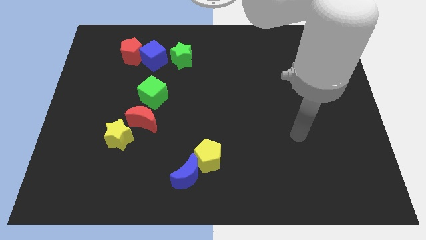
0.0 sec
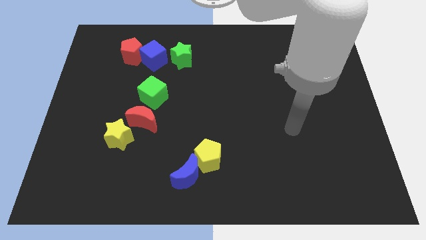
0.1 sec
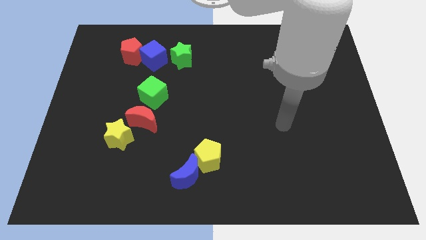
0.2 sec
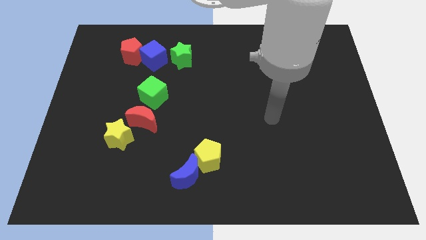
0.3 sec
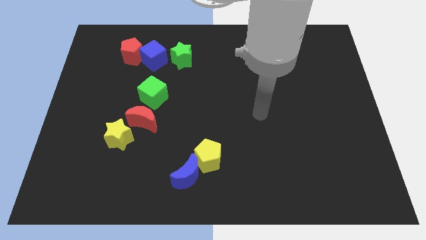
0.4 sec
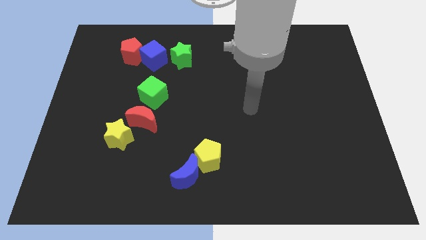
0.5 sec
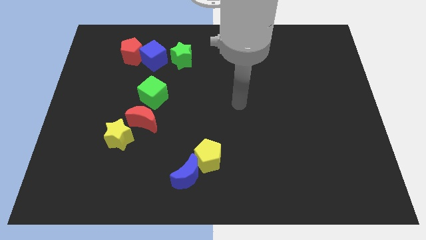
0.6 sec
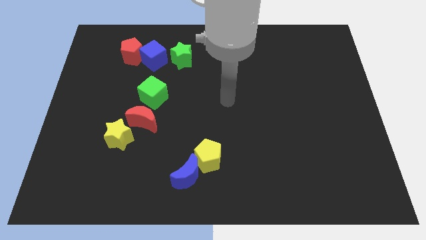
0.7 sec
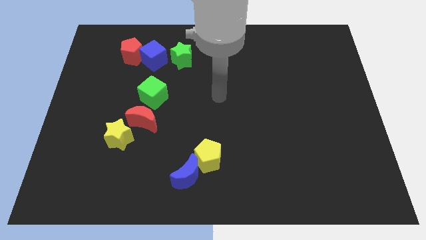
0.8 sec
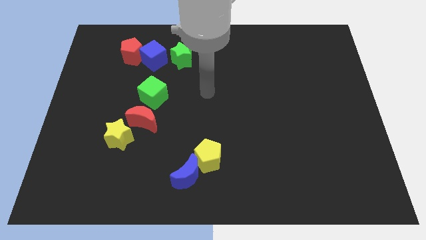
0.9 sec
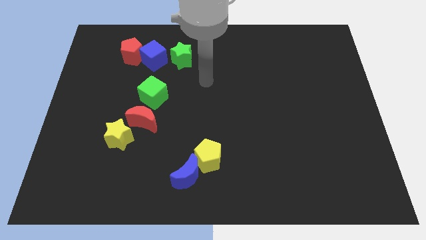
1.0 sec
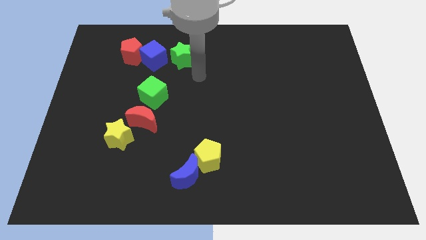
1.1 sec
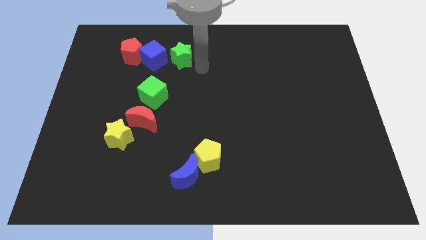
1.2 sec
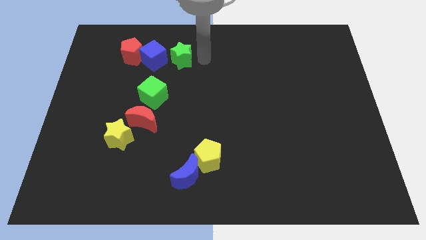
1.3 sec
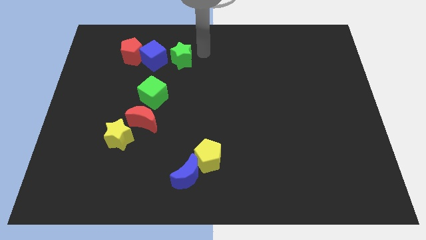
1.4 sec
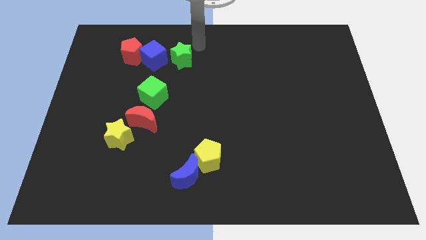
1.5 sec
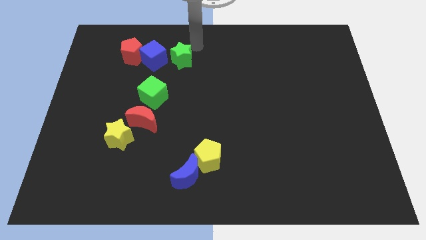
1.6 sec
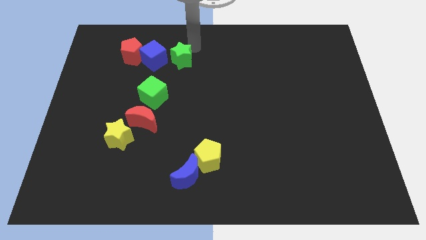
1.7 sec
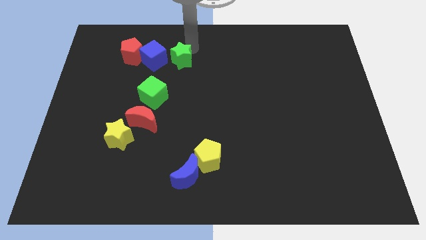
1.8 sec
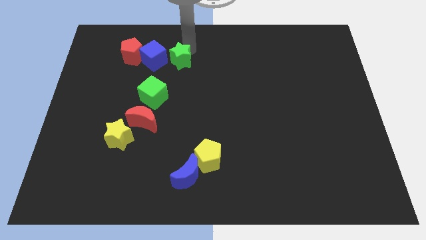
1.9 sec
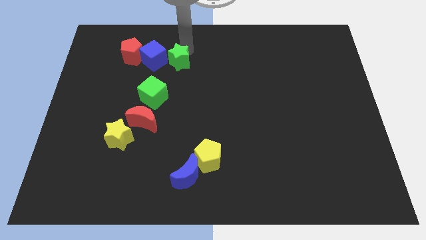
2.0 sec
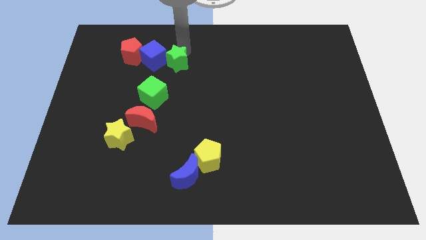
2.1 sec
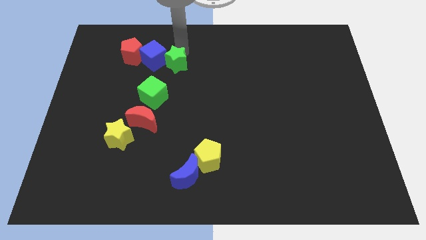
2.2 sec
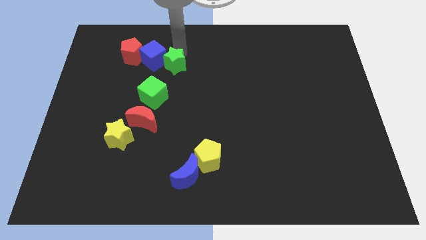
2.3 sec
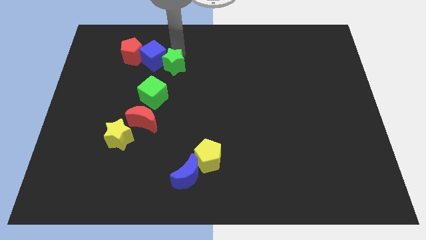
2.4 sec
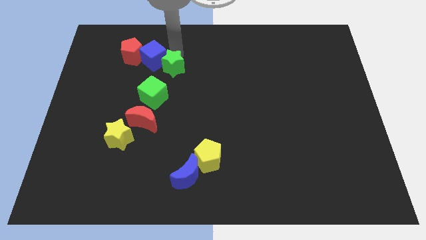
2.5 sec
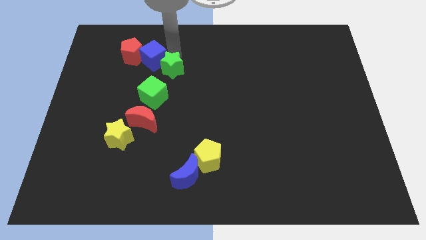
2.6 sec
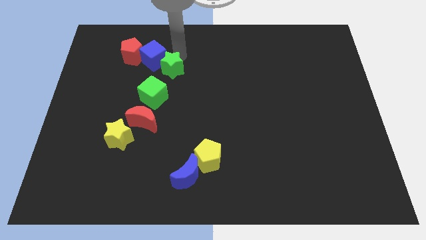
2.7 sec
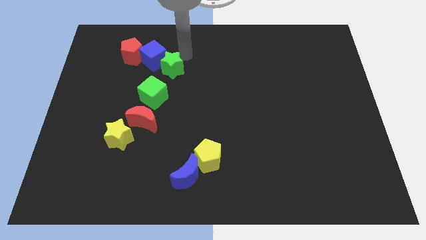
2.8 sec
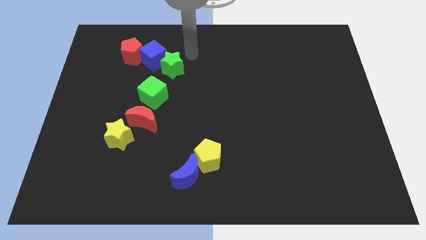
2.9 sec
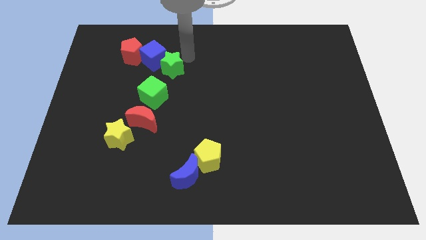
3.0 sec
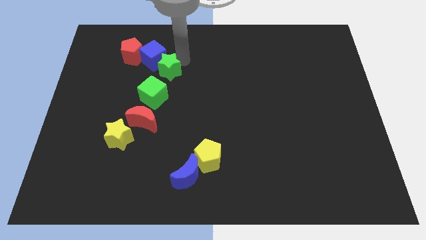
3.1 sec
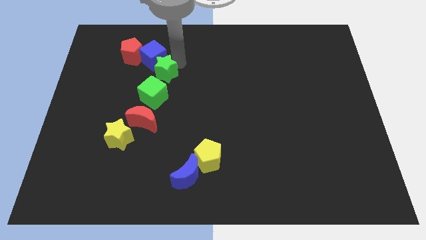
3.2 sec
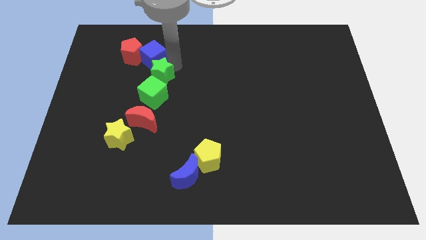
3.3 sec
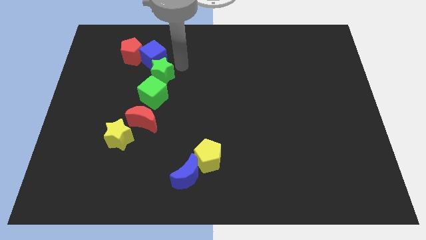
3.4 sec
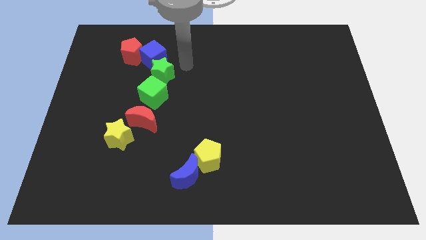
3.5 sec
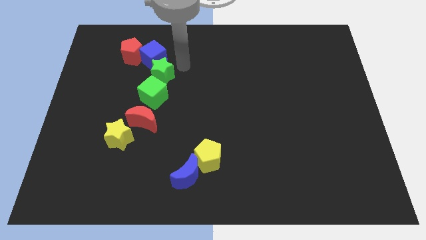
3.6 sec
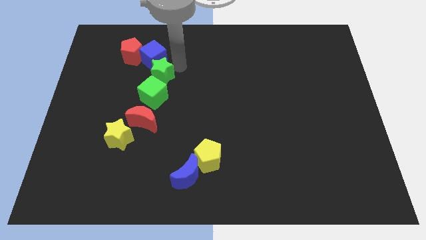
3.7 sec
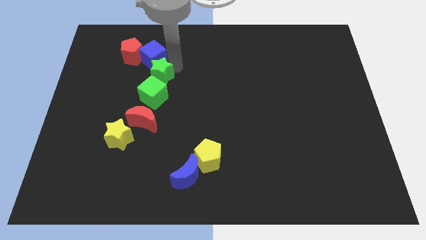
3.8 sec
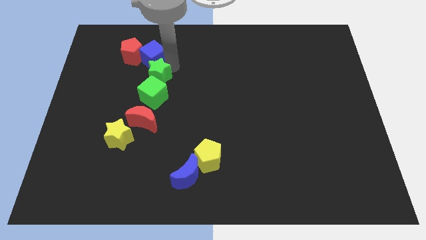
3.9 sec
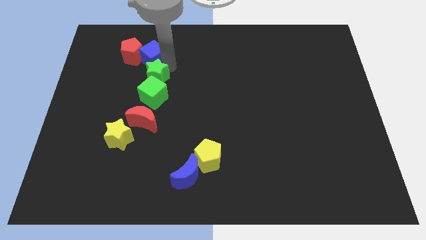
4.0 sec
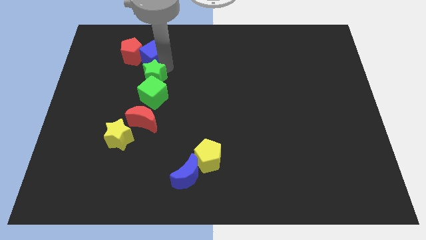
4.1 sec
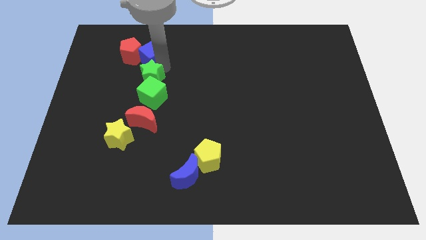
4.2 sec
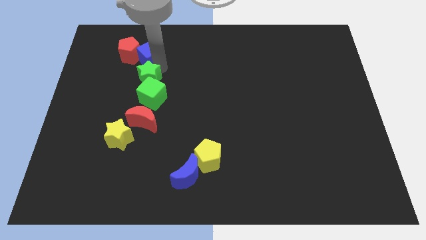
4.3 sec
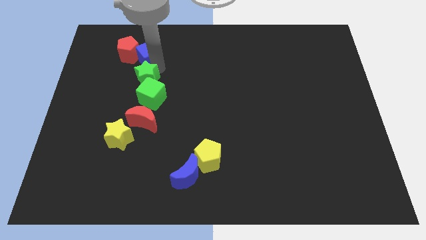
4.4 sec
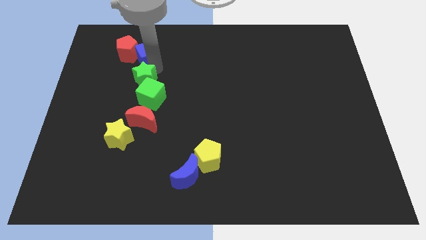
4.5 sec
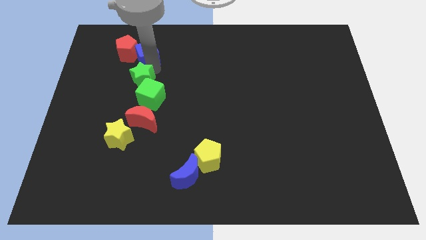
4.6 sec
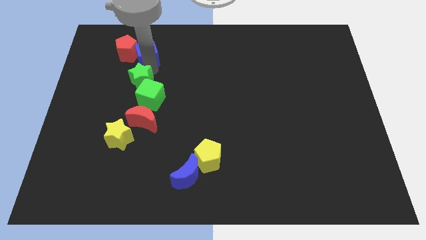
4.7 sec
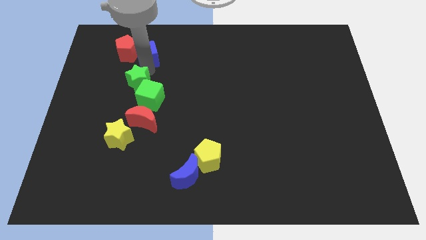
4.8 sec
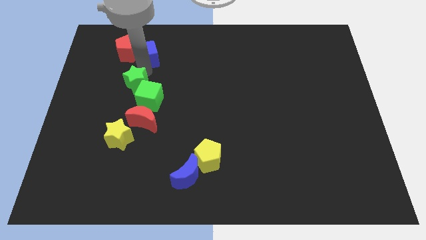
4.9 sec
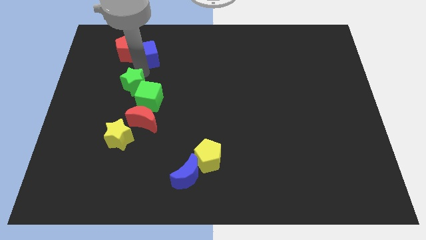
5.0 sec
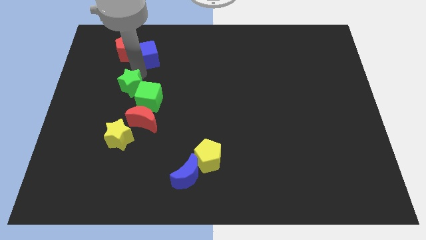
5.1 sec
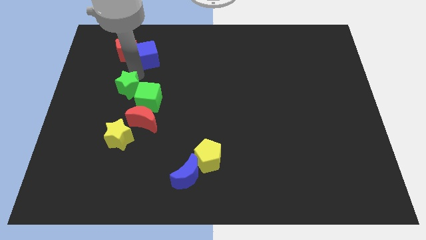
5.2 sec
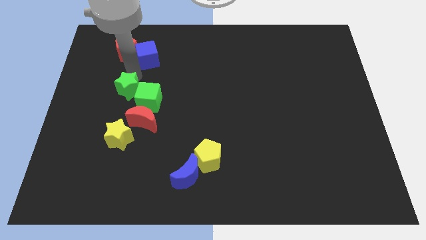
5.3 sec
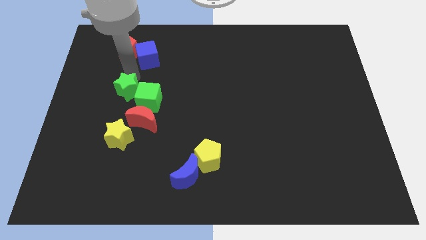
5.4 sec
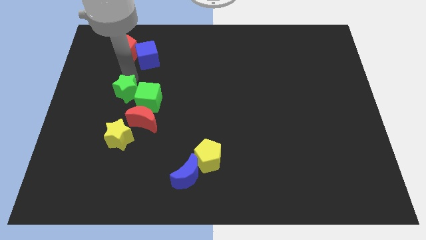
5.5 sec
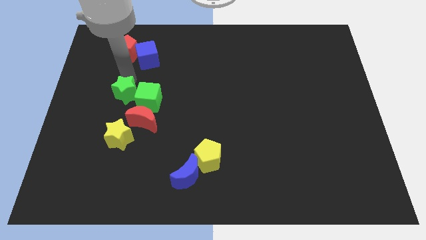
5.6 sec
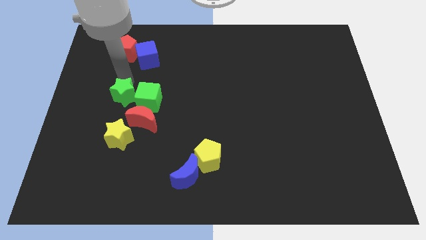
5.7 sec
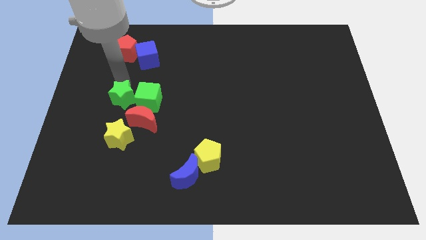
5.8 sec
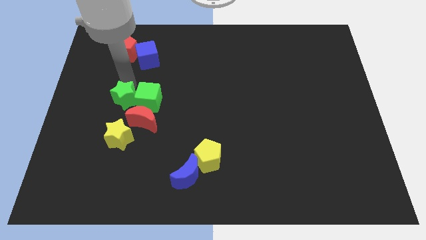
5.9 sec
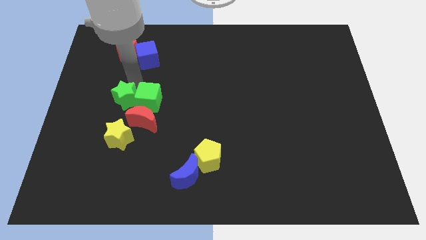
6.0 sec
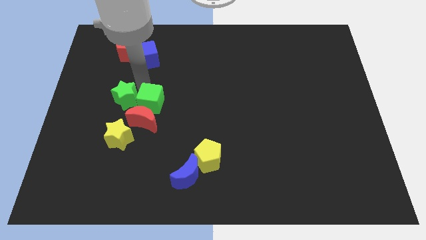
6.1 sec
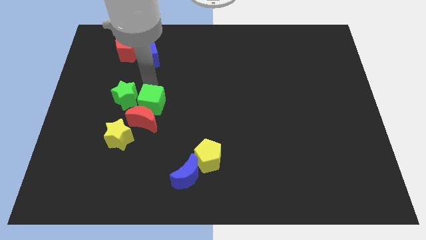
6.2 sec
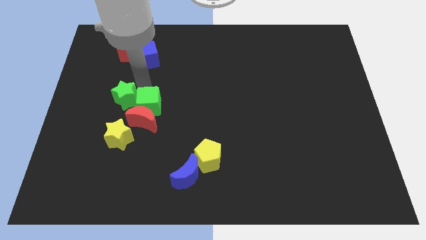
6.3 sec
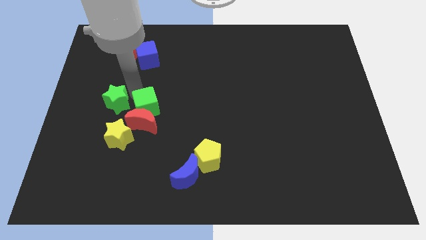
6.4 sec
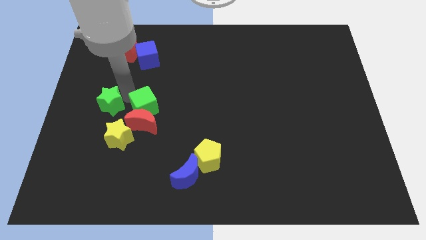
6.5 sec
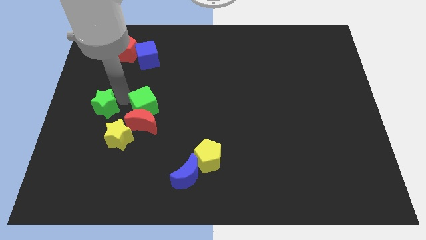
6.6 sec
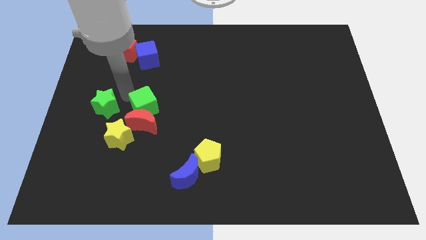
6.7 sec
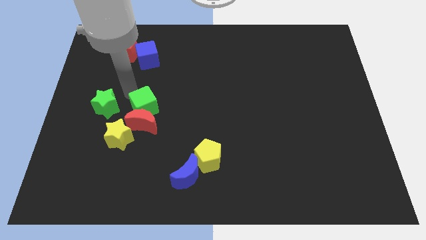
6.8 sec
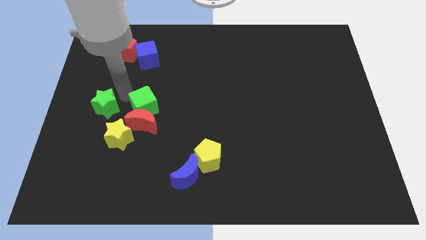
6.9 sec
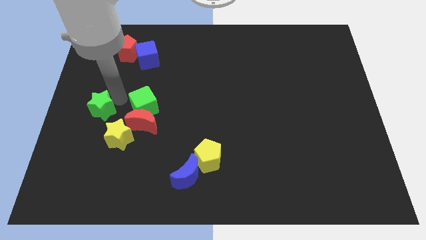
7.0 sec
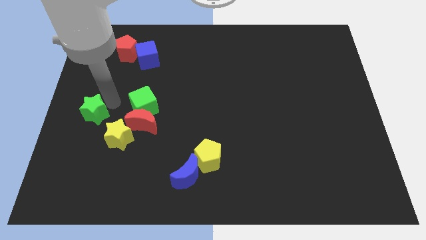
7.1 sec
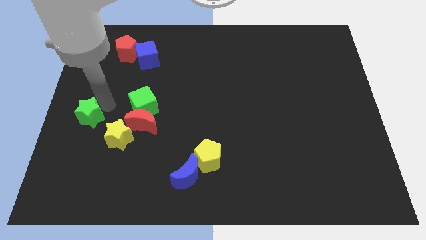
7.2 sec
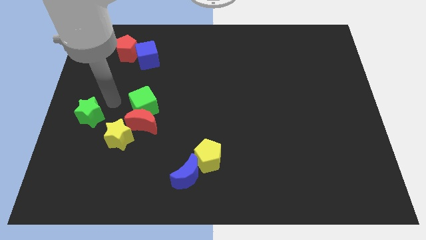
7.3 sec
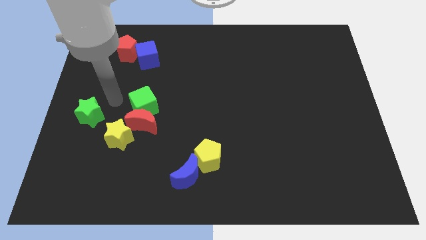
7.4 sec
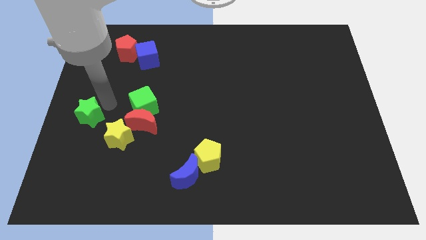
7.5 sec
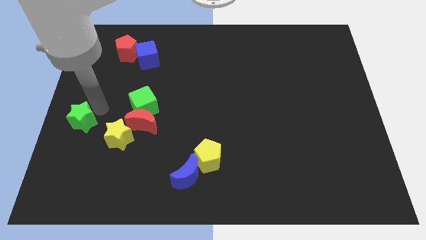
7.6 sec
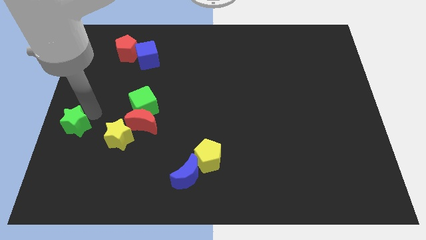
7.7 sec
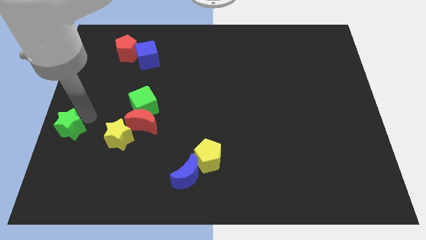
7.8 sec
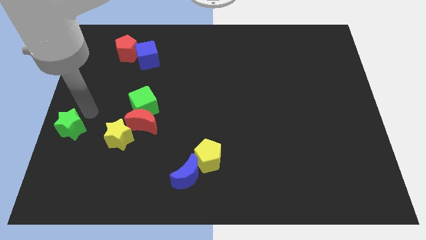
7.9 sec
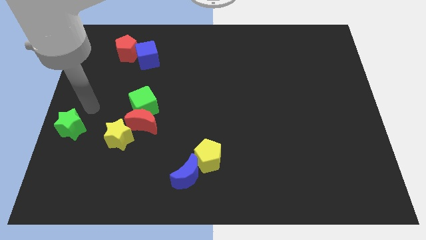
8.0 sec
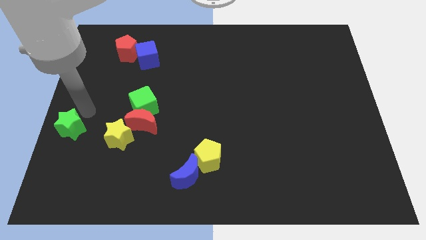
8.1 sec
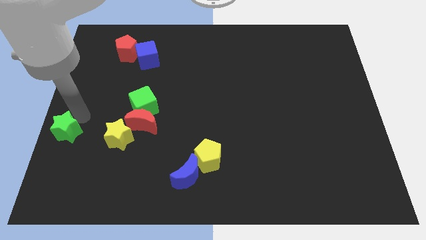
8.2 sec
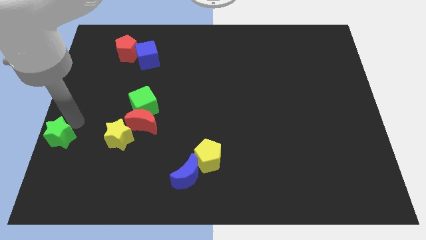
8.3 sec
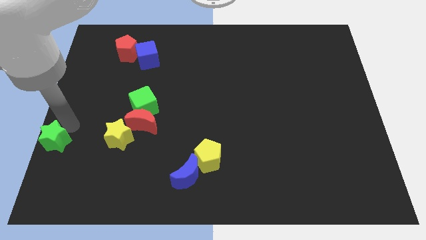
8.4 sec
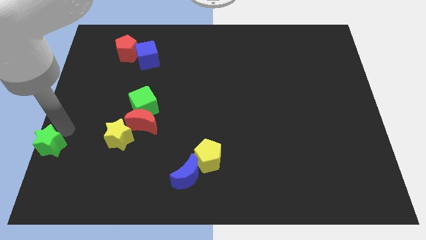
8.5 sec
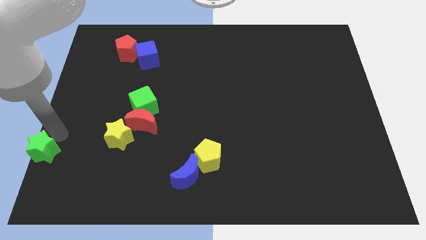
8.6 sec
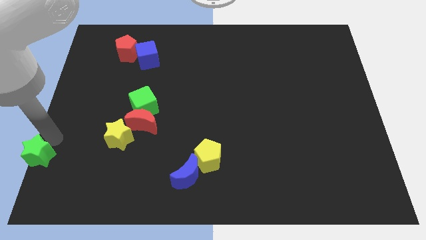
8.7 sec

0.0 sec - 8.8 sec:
put the green star to the lower left corner
